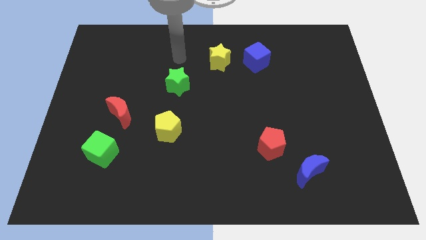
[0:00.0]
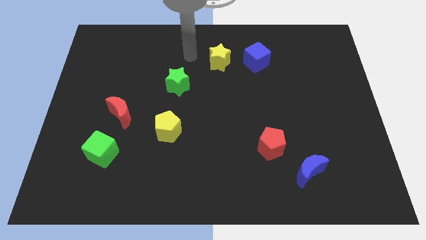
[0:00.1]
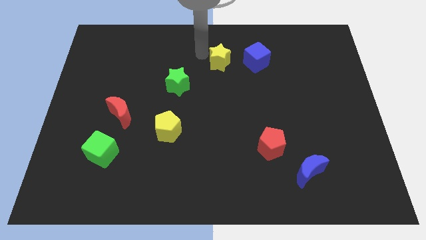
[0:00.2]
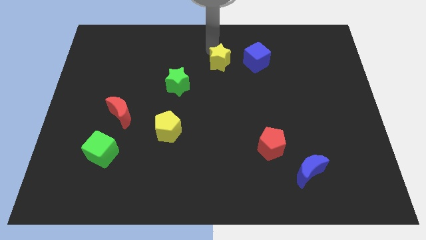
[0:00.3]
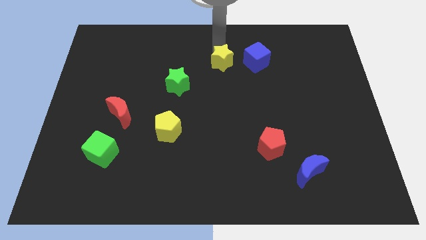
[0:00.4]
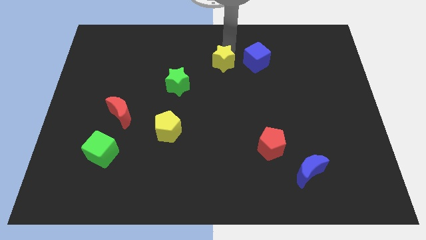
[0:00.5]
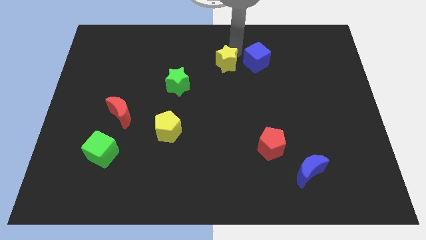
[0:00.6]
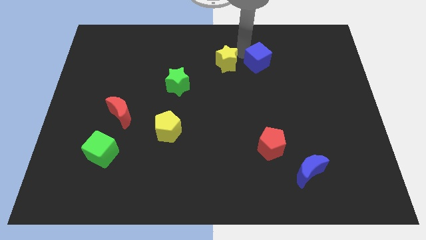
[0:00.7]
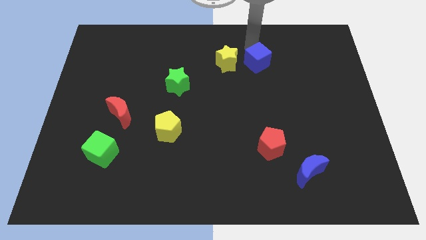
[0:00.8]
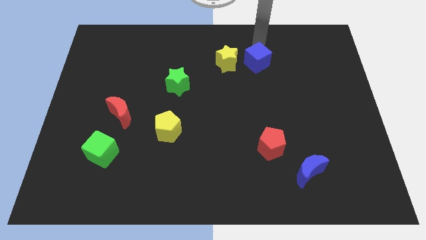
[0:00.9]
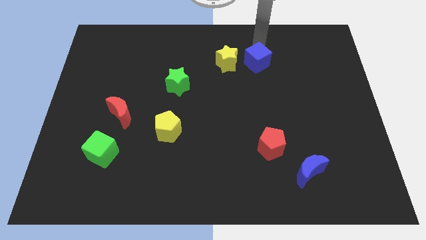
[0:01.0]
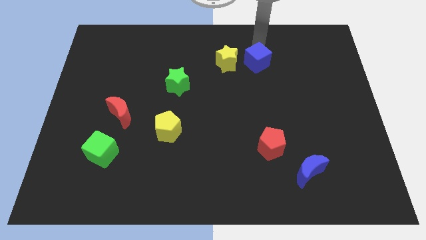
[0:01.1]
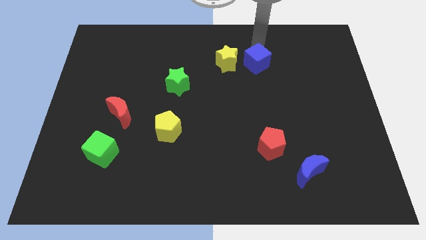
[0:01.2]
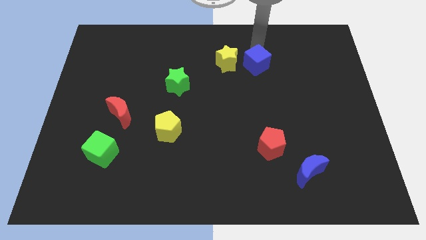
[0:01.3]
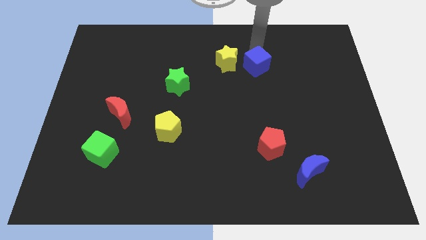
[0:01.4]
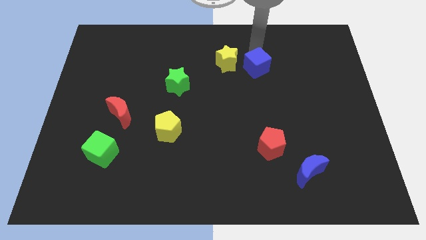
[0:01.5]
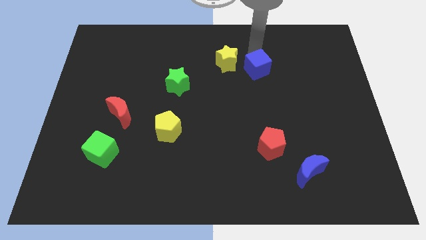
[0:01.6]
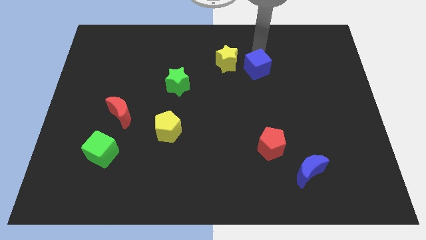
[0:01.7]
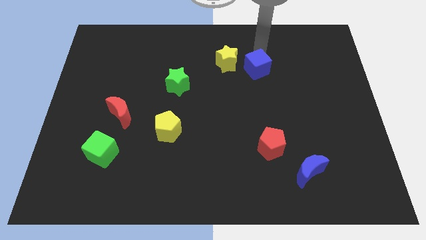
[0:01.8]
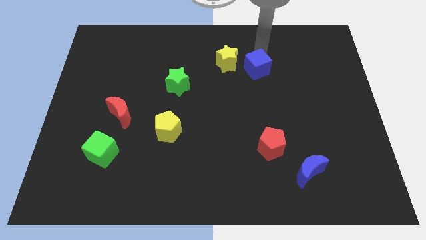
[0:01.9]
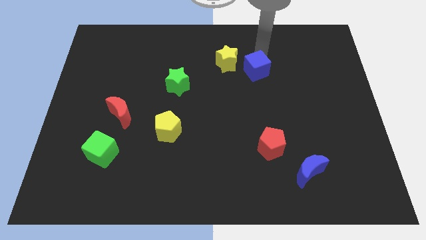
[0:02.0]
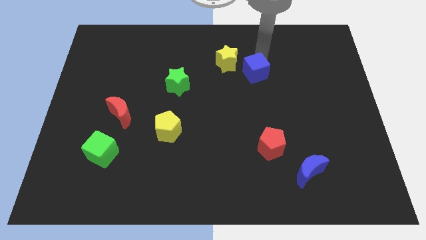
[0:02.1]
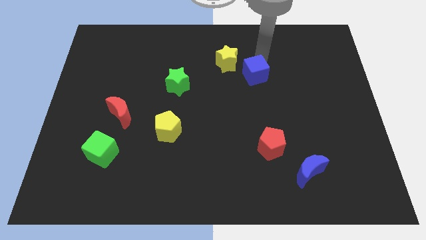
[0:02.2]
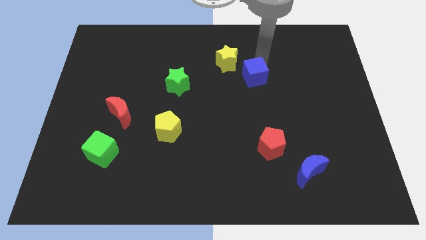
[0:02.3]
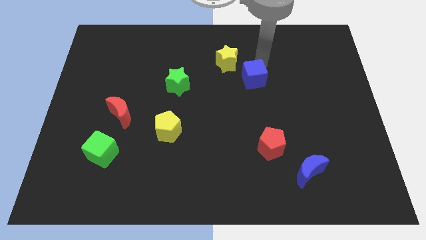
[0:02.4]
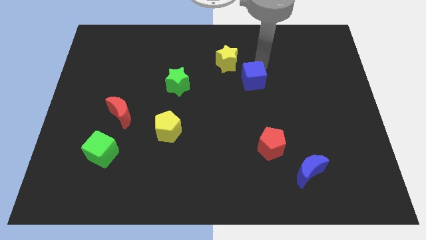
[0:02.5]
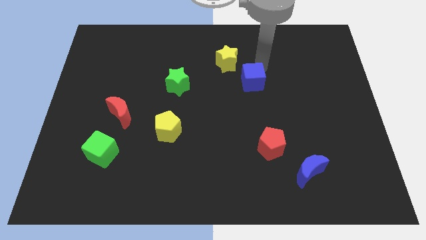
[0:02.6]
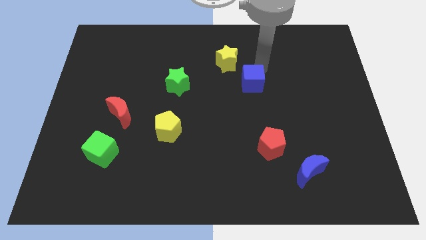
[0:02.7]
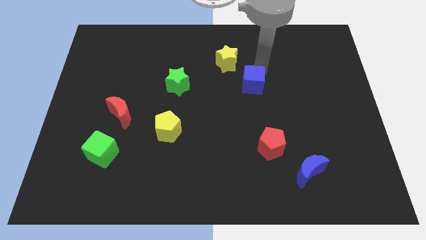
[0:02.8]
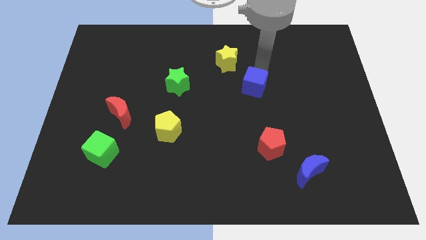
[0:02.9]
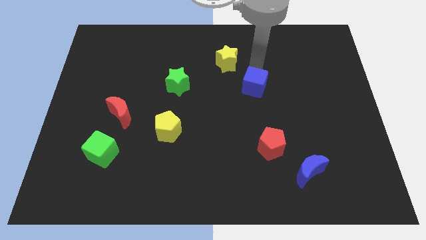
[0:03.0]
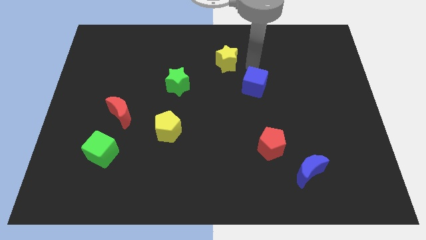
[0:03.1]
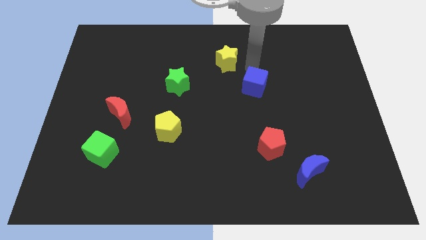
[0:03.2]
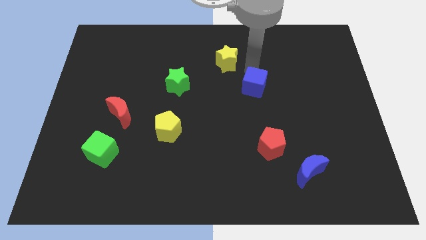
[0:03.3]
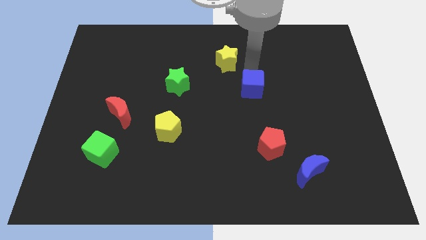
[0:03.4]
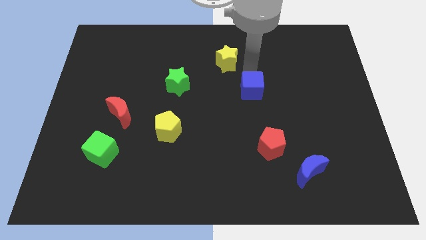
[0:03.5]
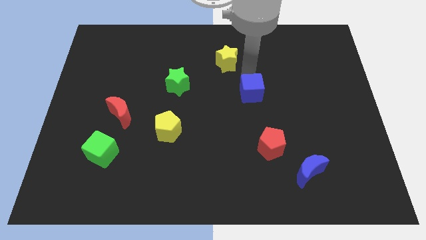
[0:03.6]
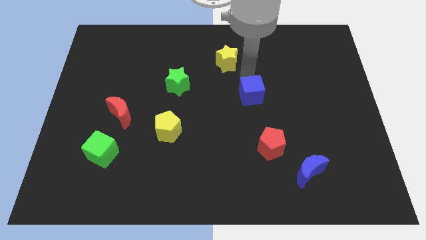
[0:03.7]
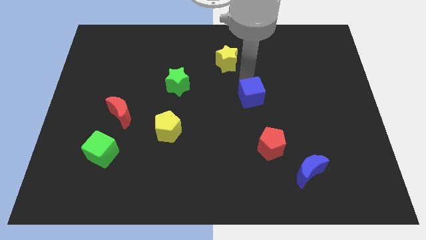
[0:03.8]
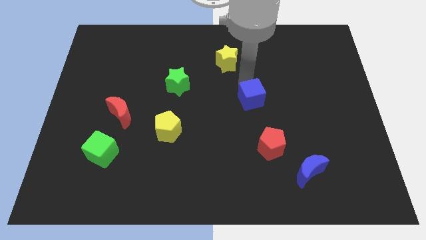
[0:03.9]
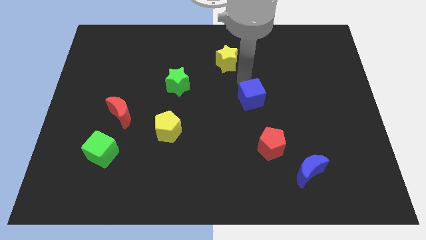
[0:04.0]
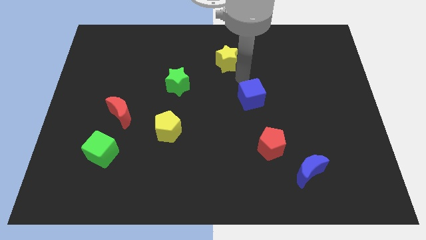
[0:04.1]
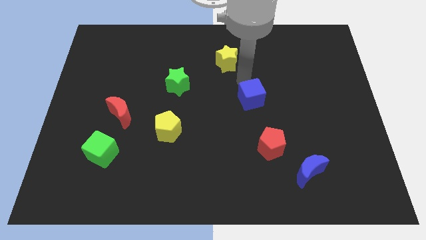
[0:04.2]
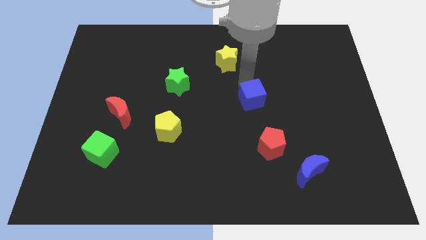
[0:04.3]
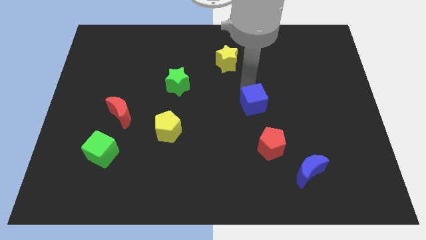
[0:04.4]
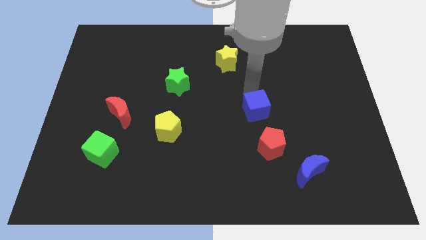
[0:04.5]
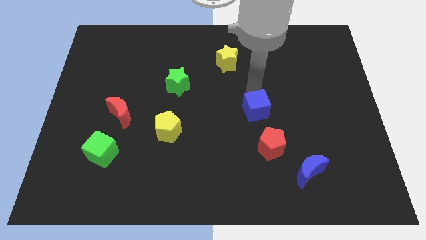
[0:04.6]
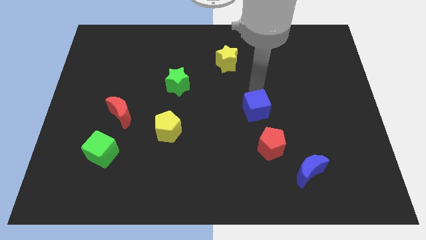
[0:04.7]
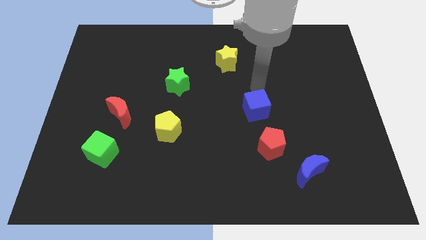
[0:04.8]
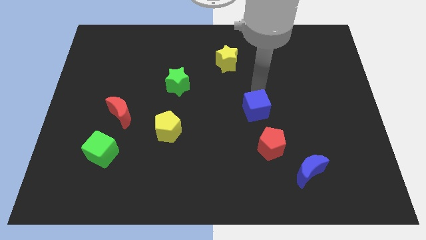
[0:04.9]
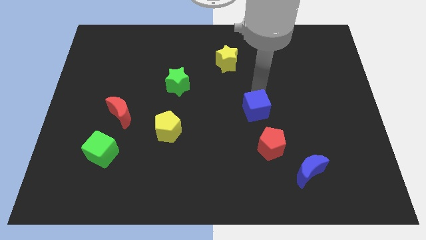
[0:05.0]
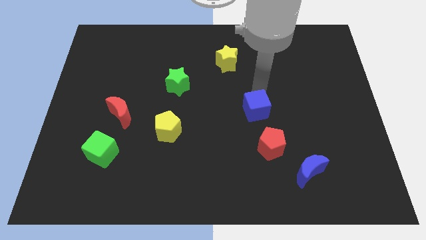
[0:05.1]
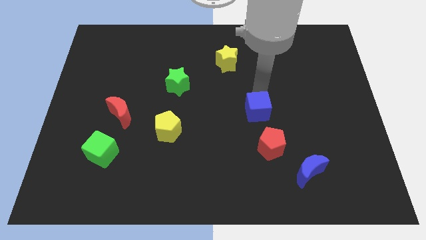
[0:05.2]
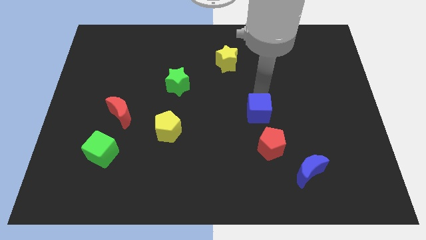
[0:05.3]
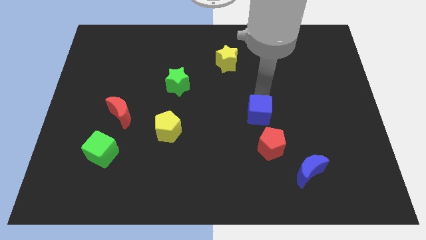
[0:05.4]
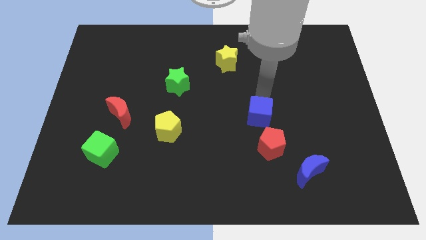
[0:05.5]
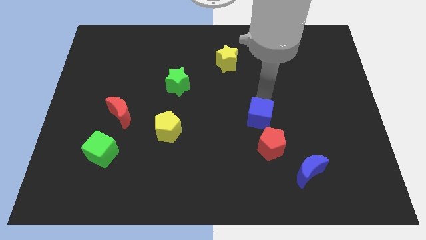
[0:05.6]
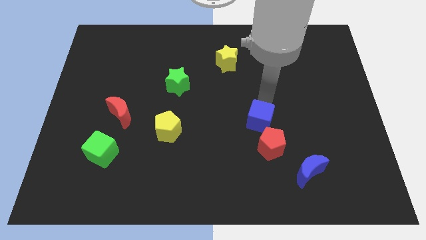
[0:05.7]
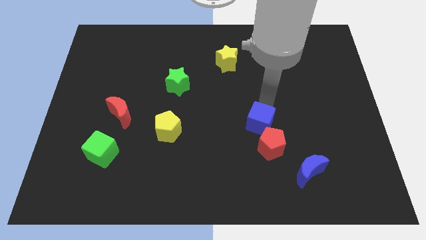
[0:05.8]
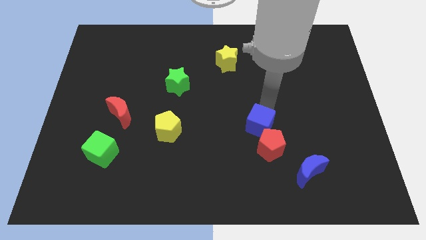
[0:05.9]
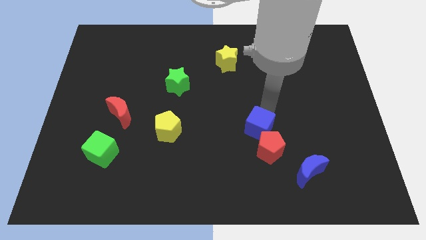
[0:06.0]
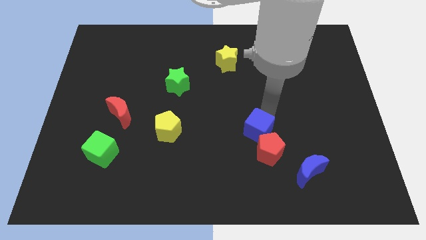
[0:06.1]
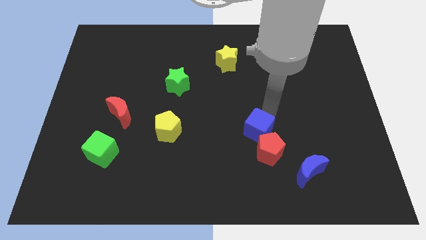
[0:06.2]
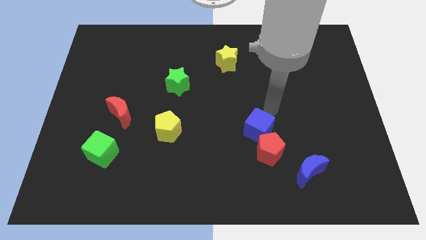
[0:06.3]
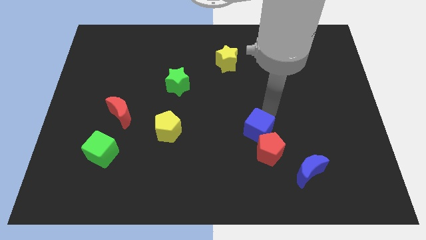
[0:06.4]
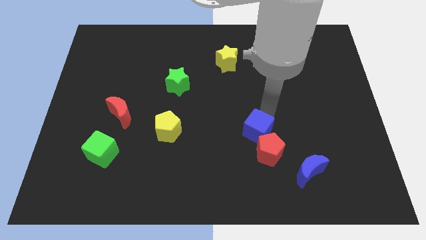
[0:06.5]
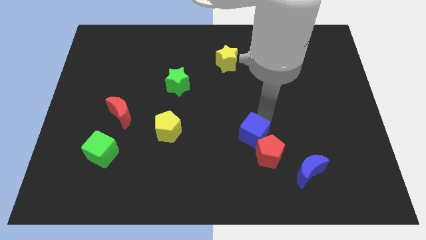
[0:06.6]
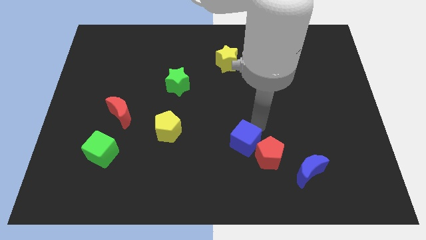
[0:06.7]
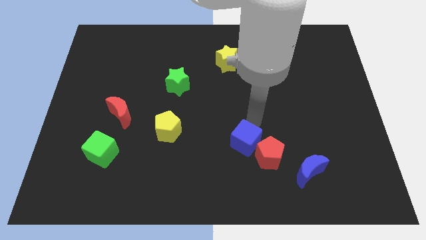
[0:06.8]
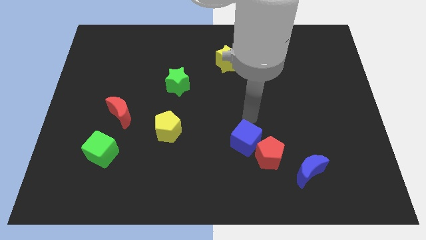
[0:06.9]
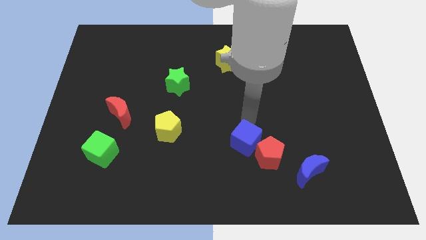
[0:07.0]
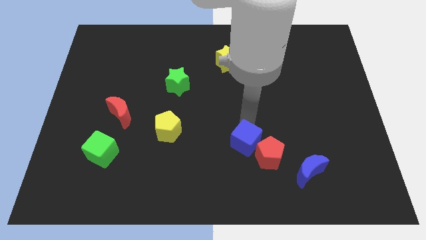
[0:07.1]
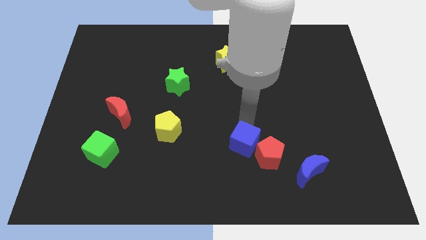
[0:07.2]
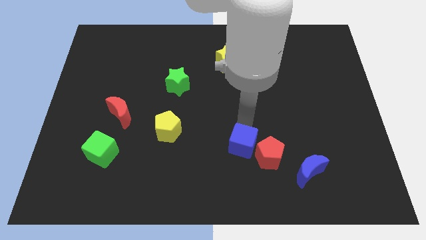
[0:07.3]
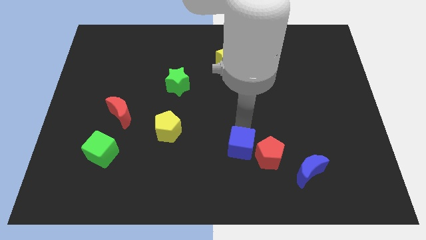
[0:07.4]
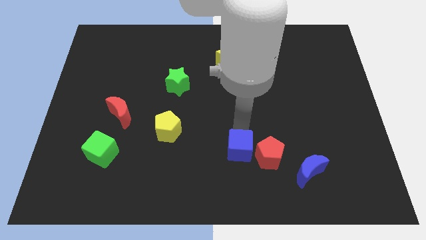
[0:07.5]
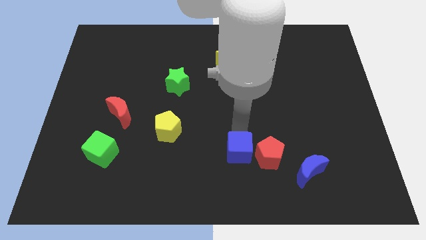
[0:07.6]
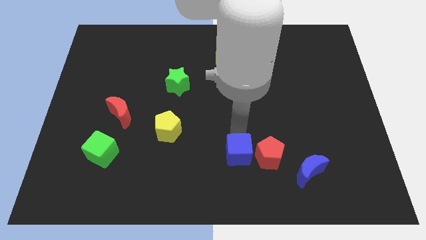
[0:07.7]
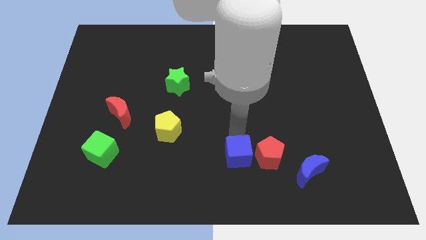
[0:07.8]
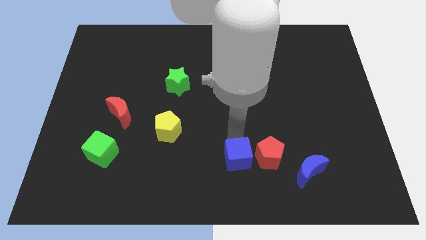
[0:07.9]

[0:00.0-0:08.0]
push the blue cube to the bottom

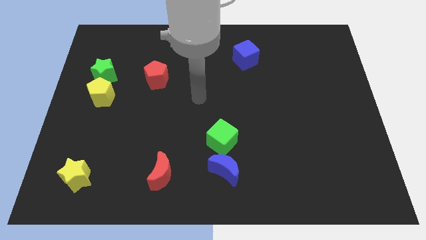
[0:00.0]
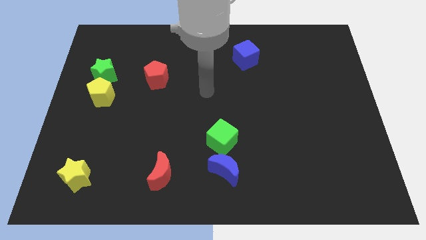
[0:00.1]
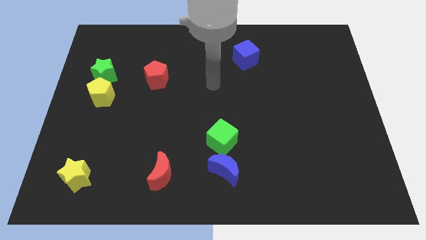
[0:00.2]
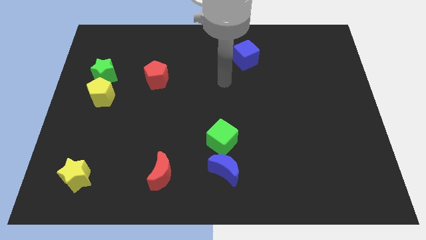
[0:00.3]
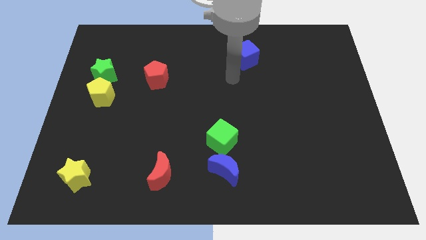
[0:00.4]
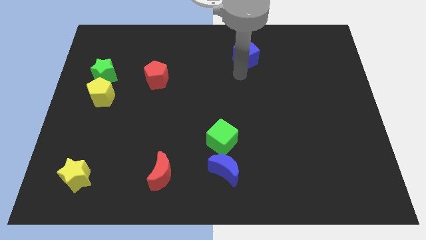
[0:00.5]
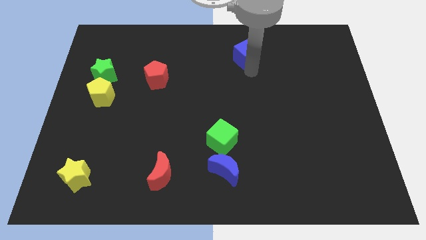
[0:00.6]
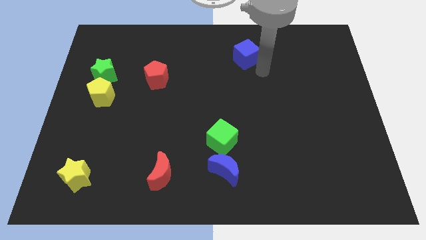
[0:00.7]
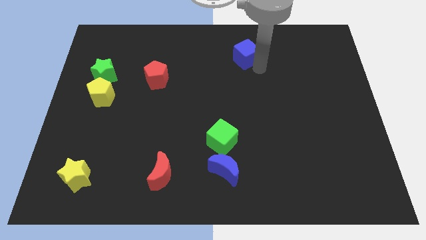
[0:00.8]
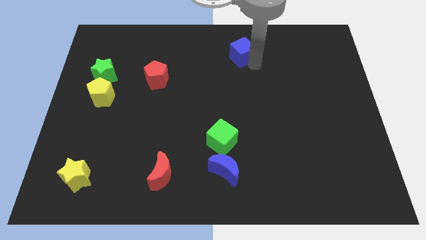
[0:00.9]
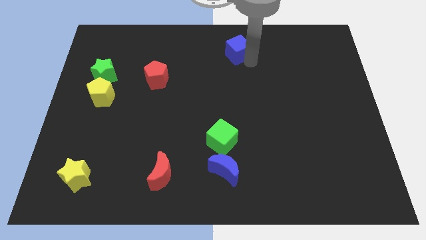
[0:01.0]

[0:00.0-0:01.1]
put the blue cube to the towards your base
